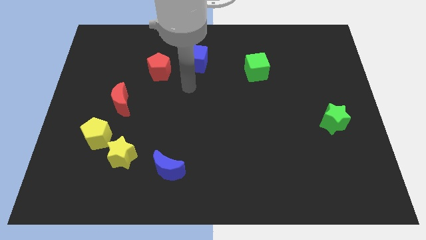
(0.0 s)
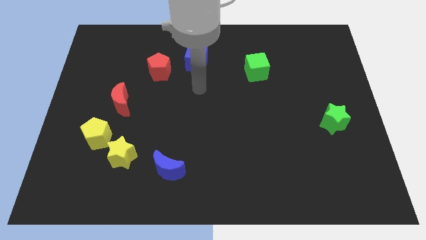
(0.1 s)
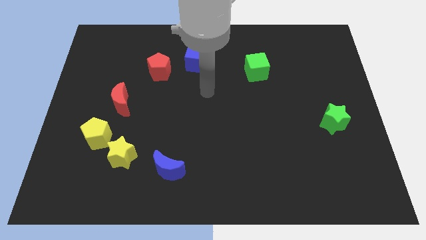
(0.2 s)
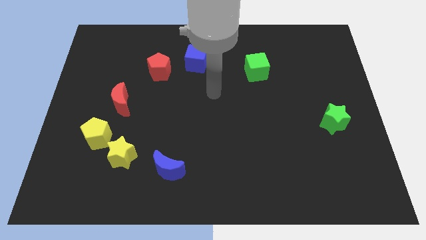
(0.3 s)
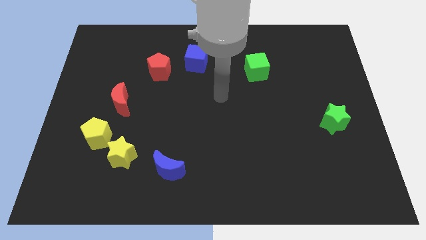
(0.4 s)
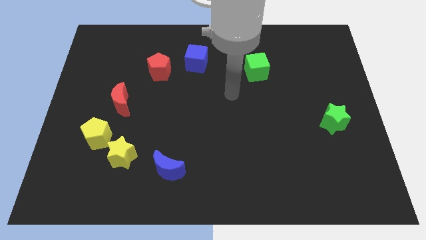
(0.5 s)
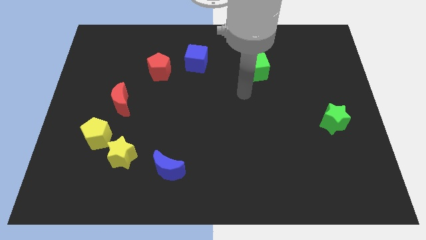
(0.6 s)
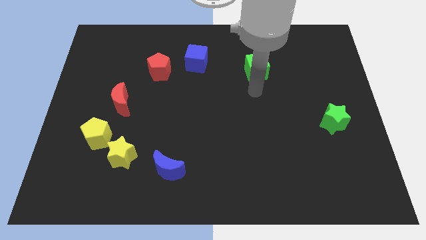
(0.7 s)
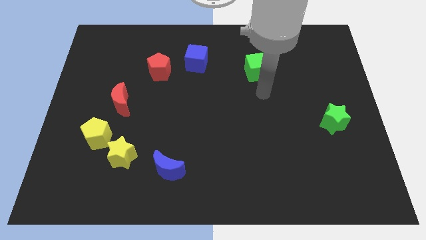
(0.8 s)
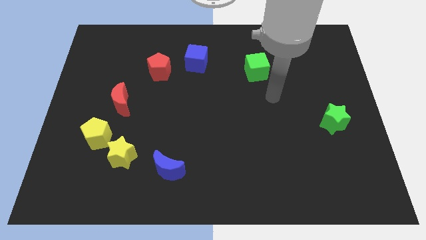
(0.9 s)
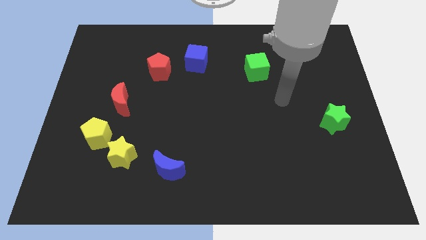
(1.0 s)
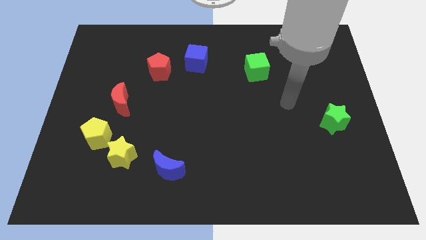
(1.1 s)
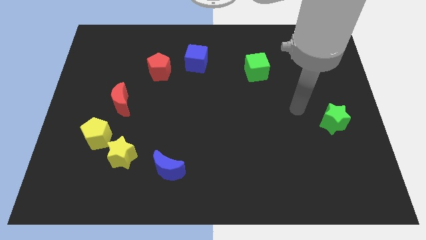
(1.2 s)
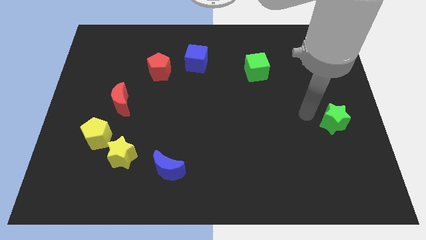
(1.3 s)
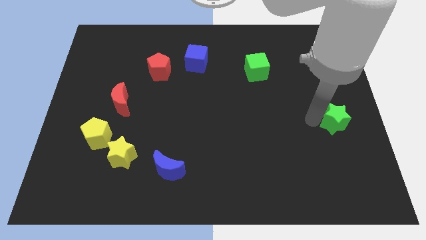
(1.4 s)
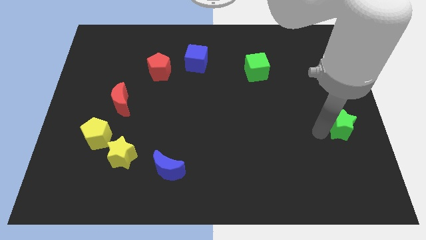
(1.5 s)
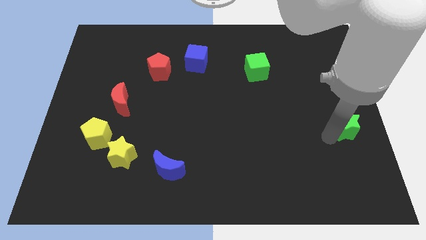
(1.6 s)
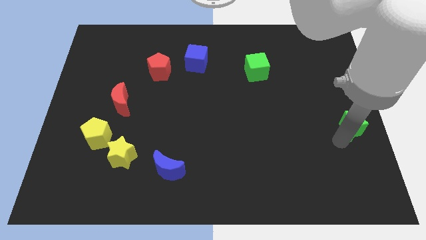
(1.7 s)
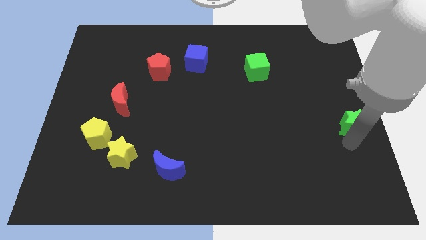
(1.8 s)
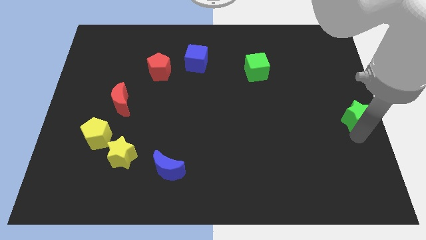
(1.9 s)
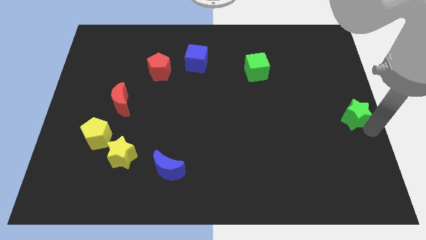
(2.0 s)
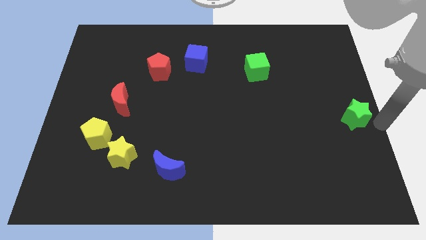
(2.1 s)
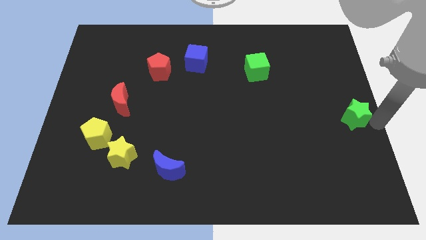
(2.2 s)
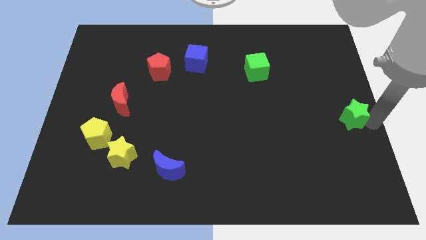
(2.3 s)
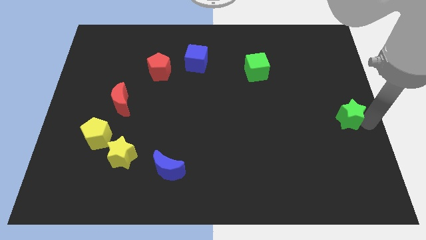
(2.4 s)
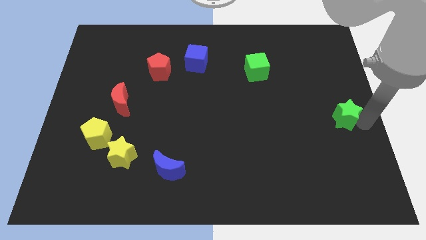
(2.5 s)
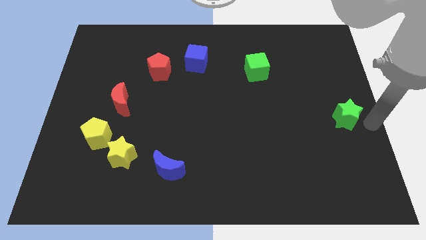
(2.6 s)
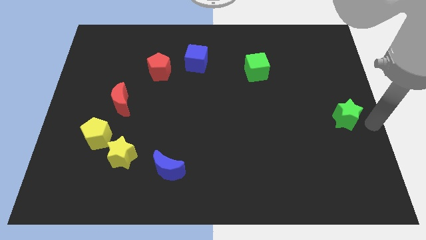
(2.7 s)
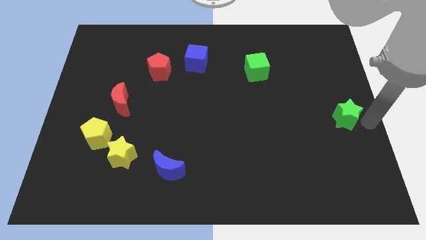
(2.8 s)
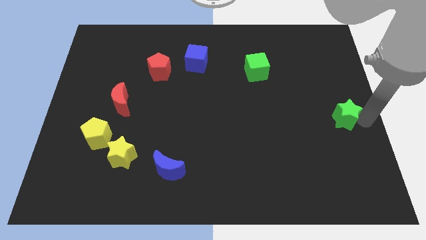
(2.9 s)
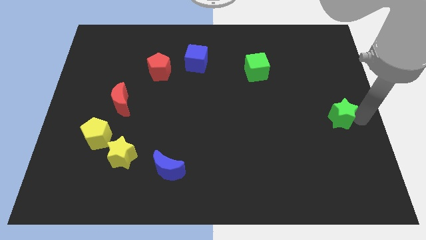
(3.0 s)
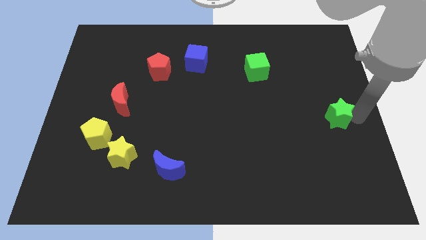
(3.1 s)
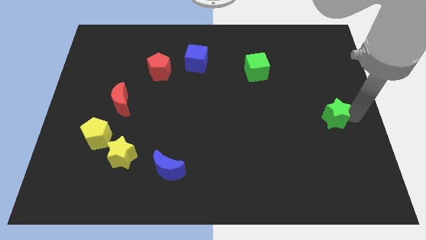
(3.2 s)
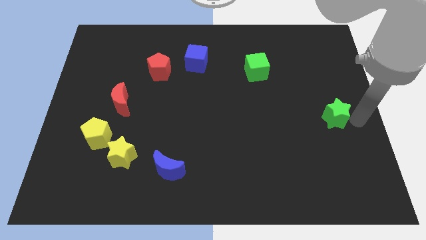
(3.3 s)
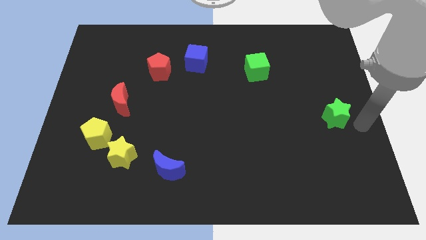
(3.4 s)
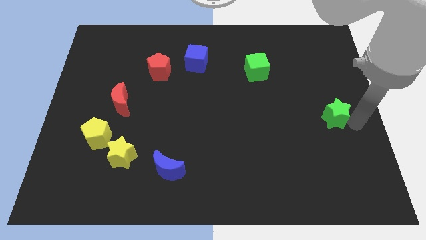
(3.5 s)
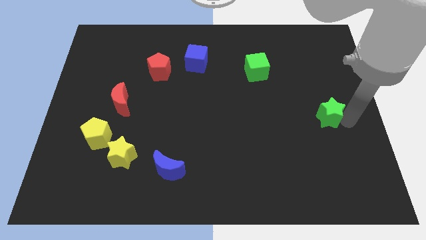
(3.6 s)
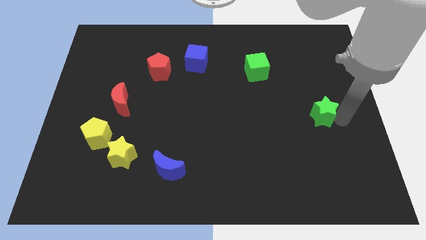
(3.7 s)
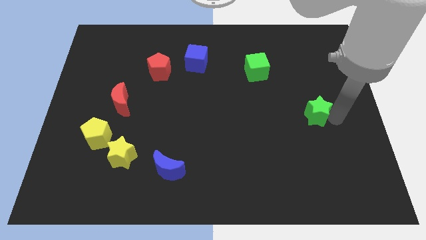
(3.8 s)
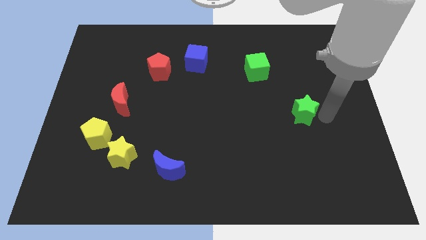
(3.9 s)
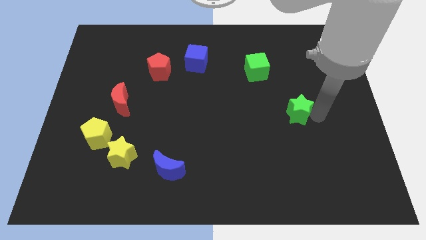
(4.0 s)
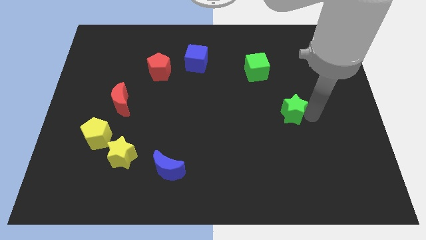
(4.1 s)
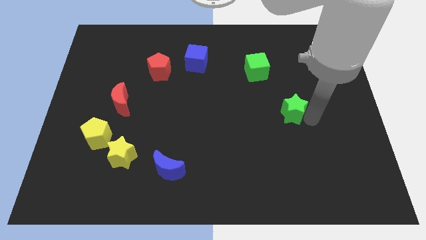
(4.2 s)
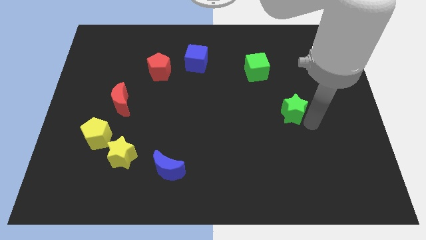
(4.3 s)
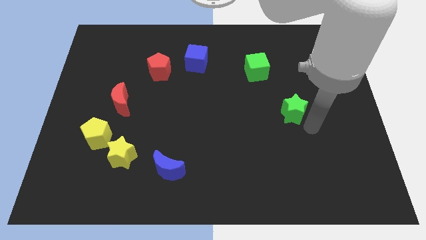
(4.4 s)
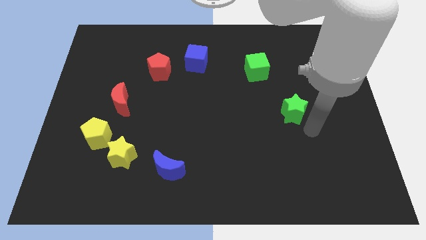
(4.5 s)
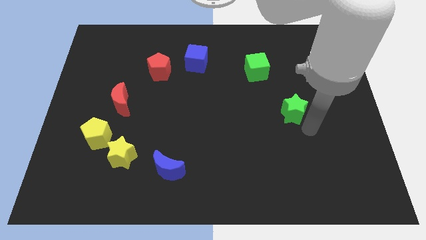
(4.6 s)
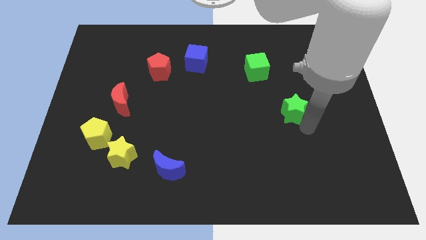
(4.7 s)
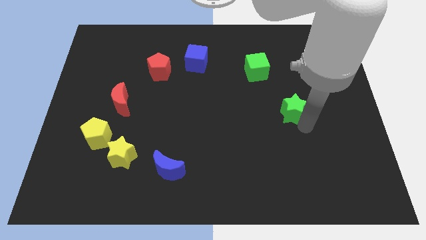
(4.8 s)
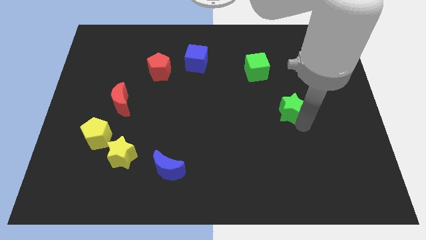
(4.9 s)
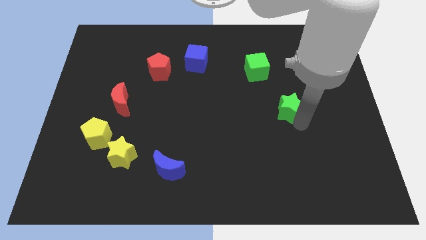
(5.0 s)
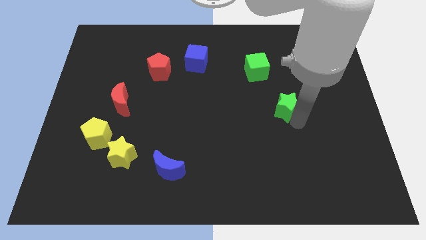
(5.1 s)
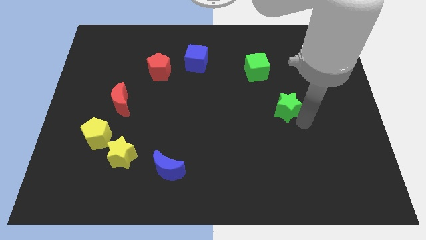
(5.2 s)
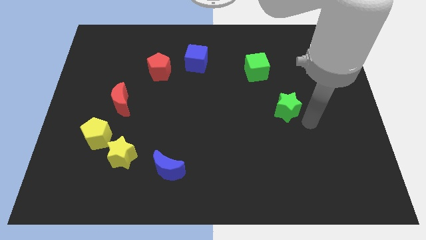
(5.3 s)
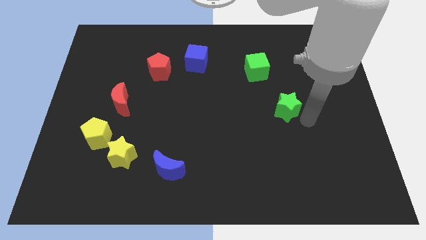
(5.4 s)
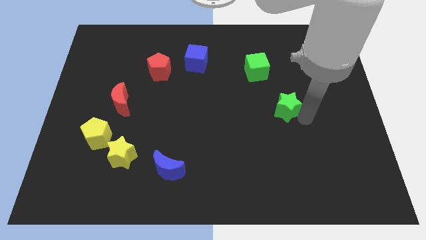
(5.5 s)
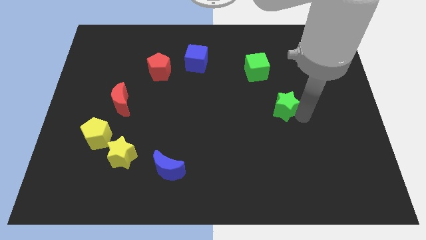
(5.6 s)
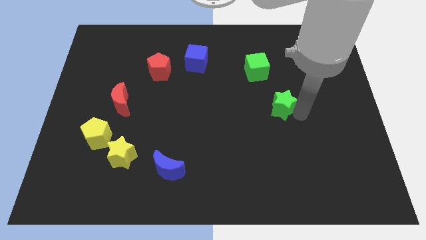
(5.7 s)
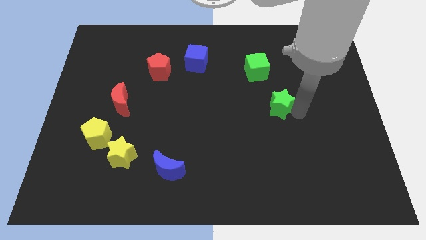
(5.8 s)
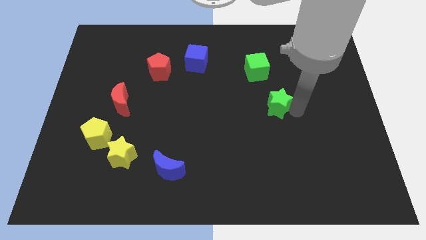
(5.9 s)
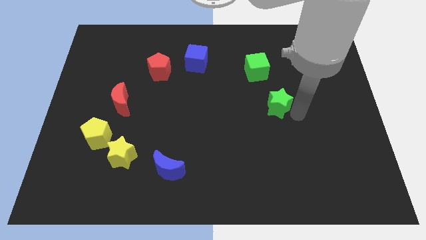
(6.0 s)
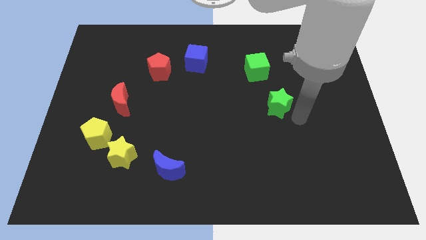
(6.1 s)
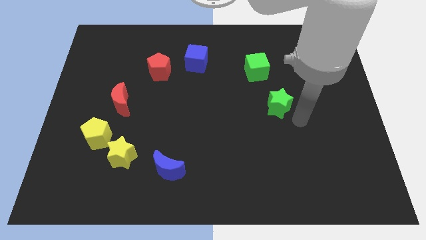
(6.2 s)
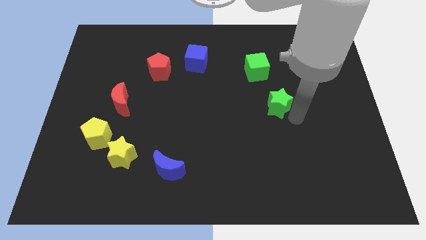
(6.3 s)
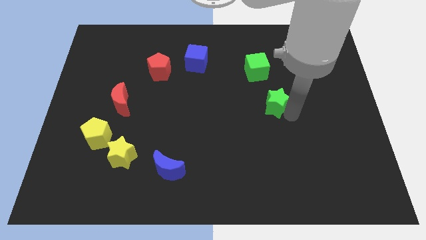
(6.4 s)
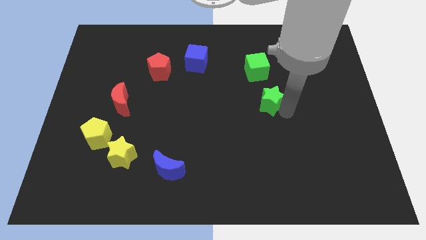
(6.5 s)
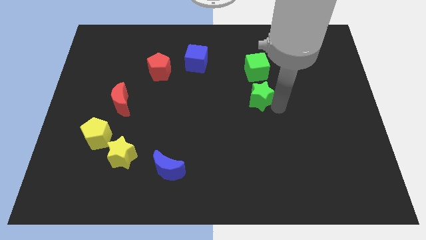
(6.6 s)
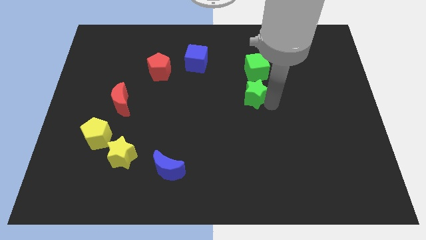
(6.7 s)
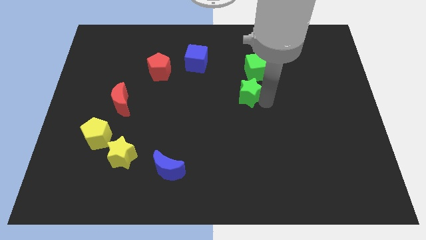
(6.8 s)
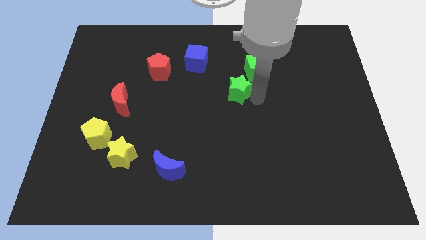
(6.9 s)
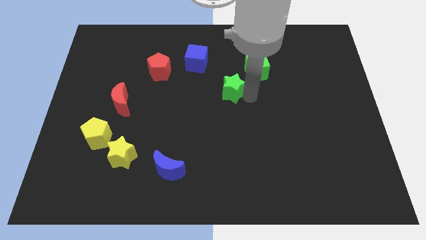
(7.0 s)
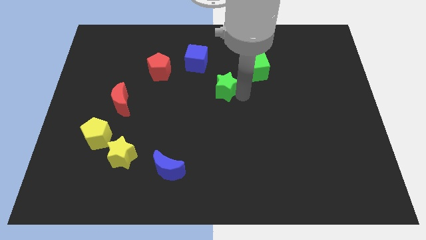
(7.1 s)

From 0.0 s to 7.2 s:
put the green star diagonally down and to the right of the blue cube
